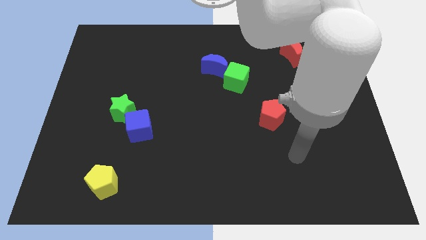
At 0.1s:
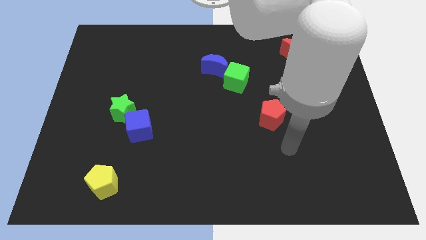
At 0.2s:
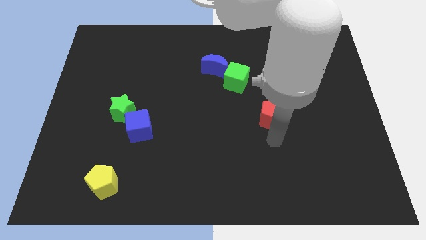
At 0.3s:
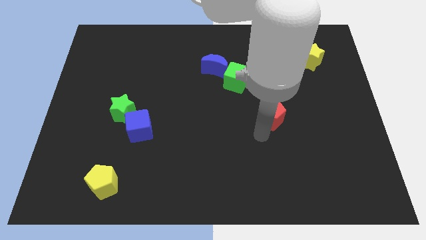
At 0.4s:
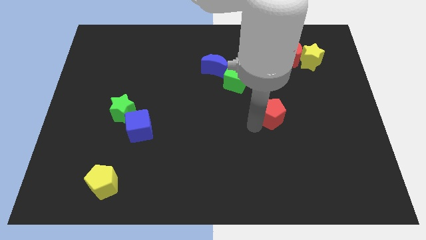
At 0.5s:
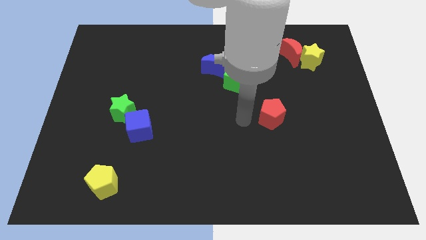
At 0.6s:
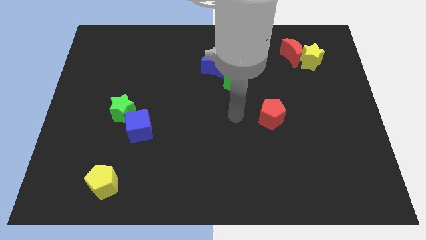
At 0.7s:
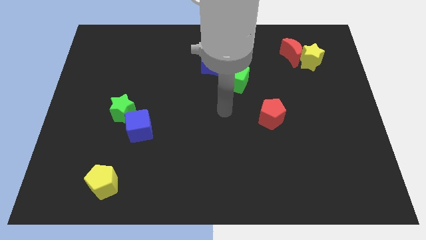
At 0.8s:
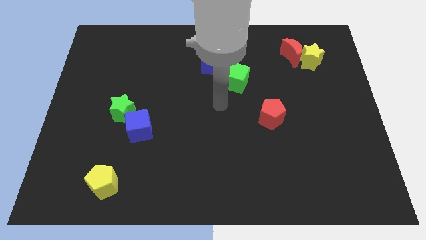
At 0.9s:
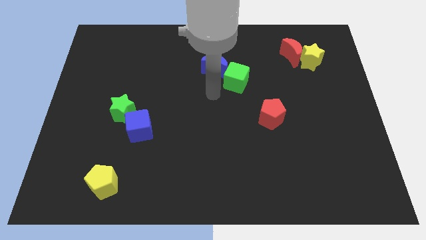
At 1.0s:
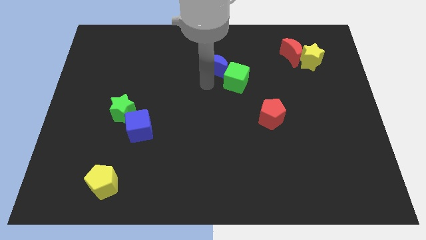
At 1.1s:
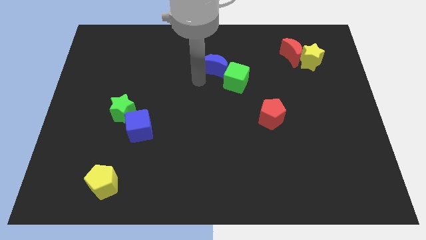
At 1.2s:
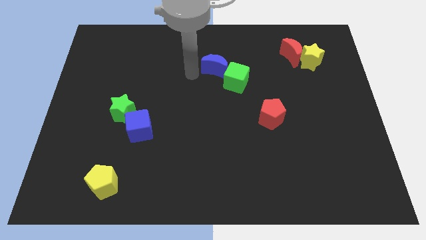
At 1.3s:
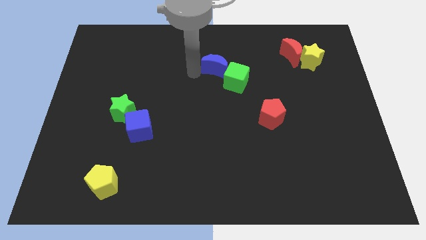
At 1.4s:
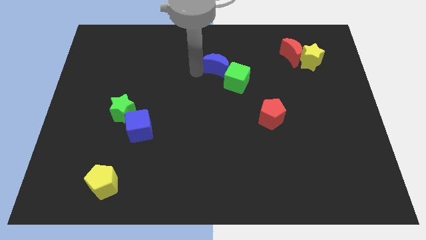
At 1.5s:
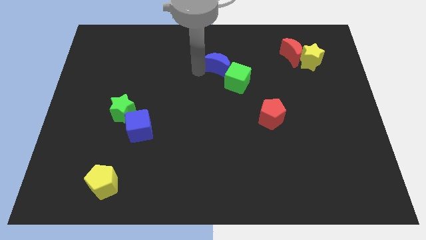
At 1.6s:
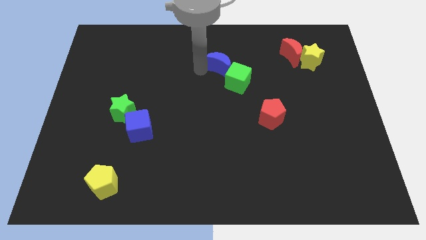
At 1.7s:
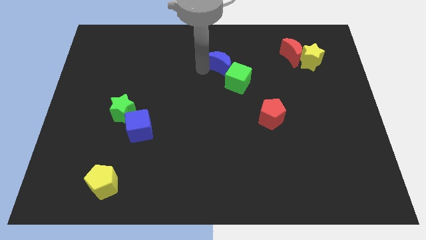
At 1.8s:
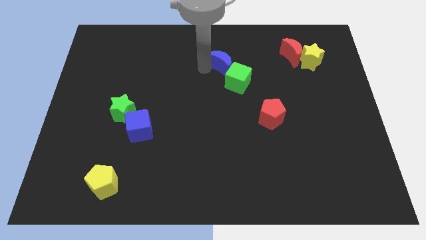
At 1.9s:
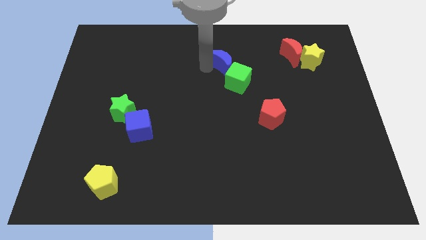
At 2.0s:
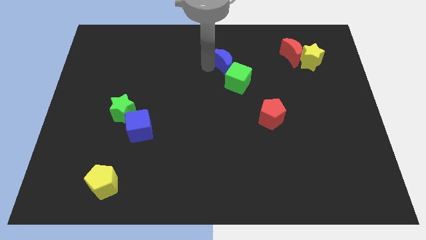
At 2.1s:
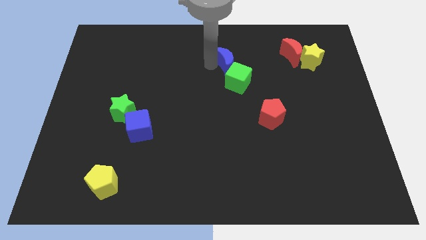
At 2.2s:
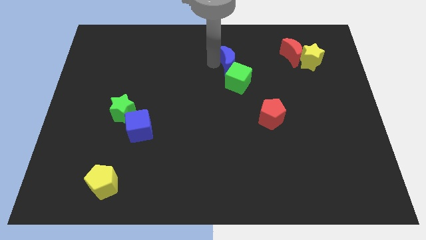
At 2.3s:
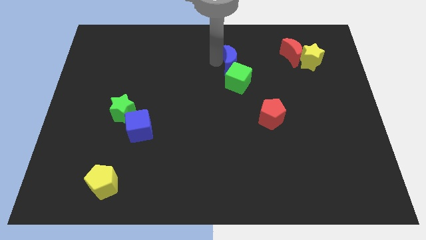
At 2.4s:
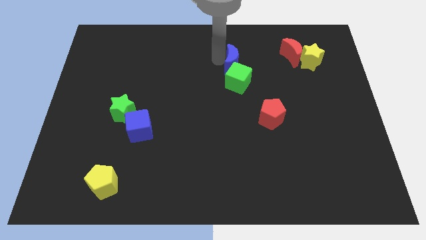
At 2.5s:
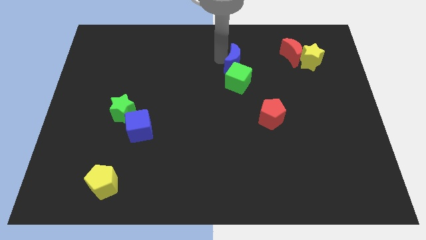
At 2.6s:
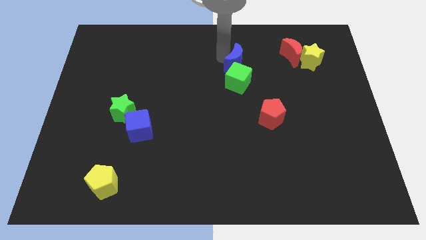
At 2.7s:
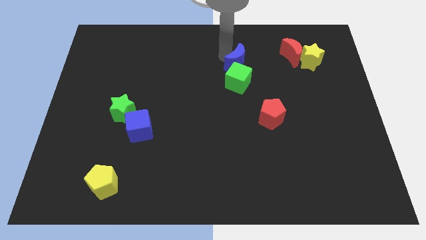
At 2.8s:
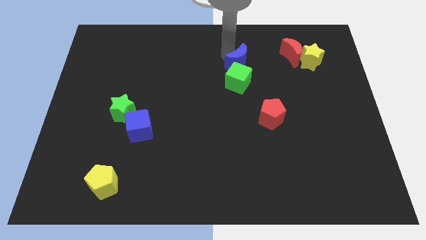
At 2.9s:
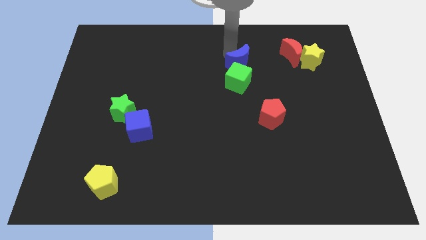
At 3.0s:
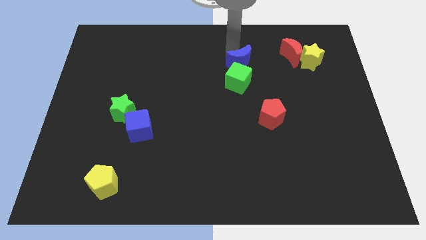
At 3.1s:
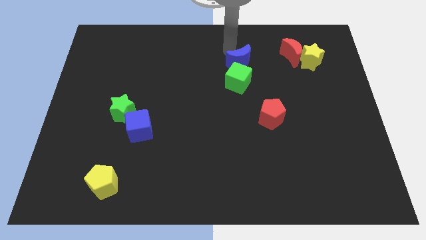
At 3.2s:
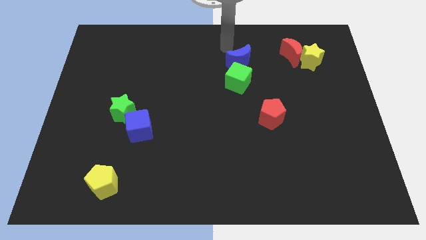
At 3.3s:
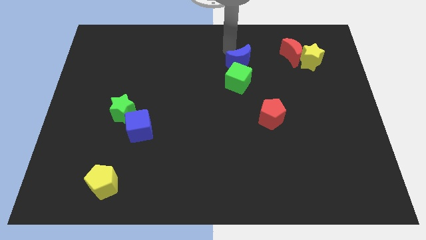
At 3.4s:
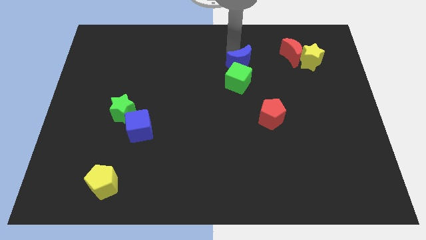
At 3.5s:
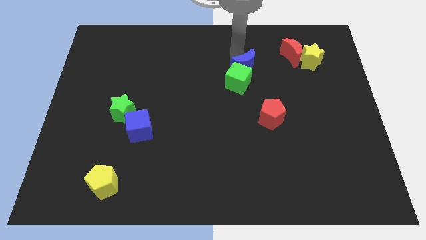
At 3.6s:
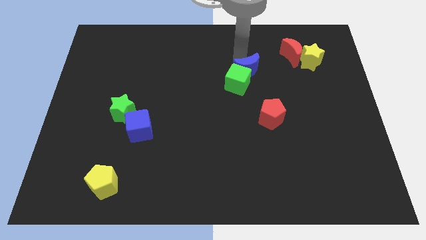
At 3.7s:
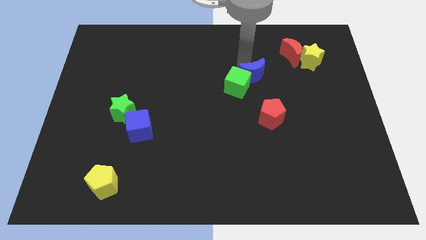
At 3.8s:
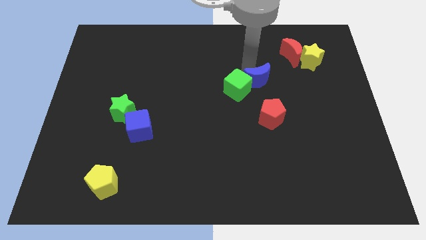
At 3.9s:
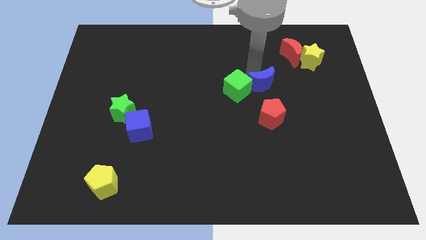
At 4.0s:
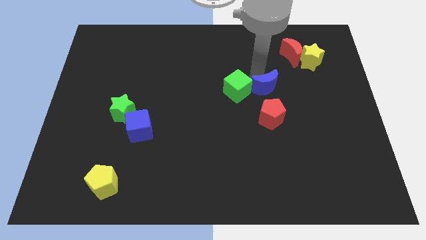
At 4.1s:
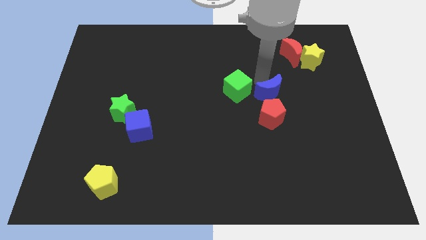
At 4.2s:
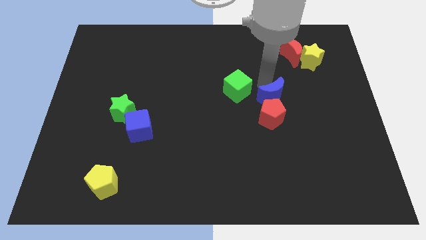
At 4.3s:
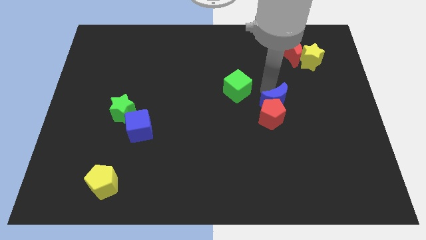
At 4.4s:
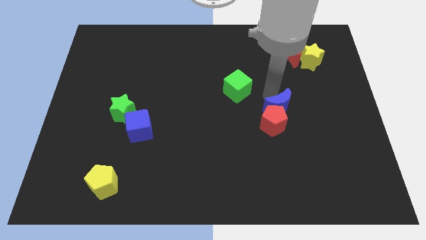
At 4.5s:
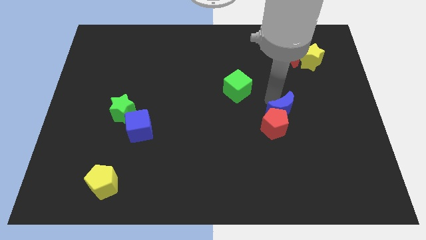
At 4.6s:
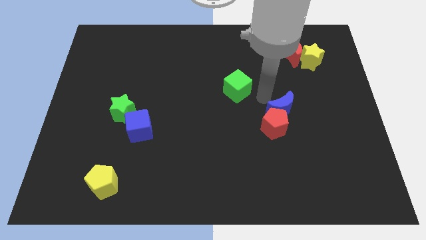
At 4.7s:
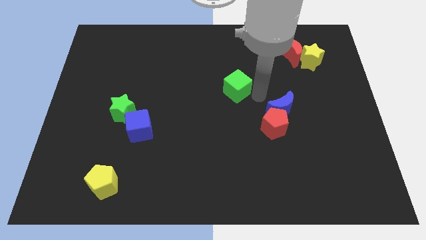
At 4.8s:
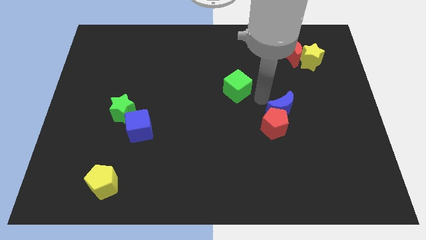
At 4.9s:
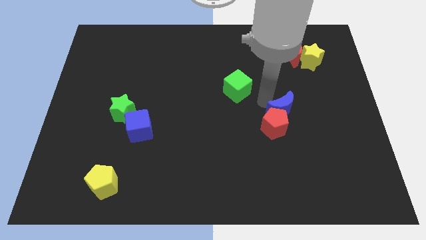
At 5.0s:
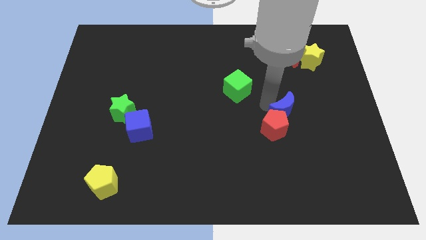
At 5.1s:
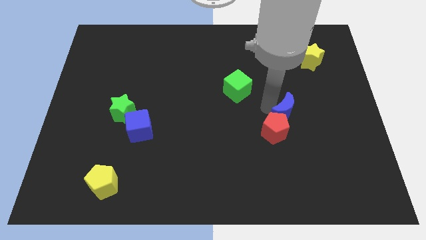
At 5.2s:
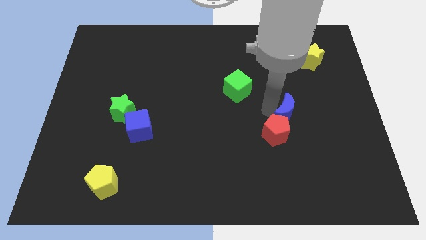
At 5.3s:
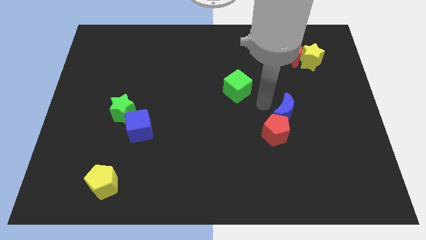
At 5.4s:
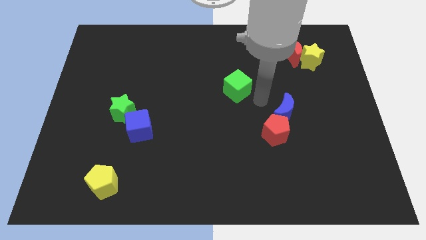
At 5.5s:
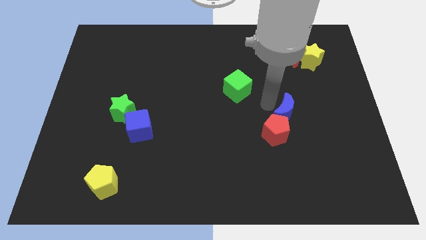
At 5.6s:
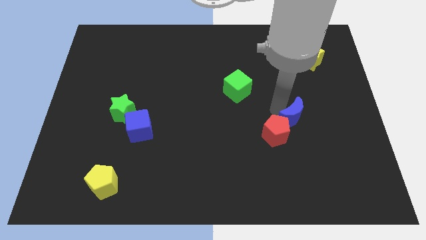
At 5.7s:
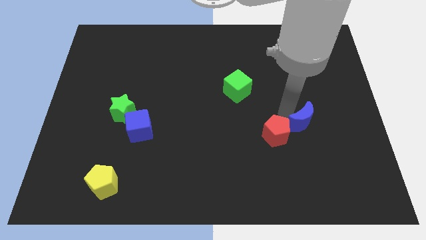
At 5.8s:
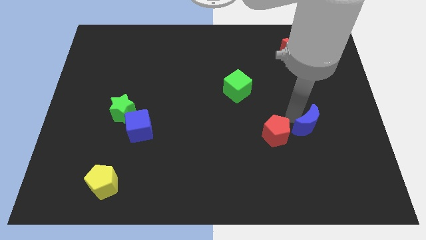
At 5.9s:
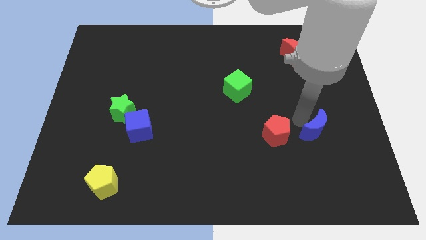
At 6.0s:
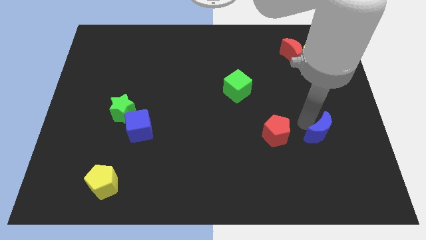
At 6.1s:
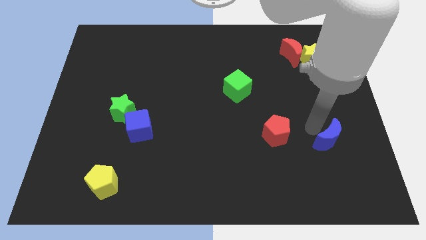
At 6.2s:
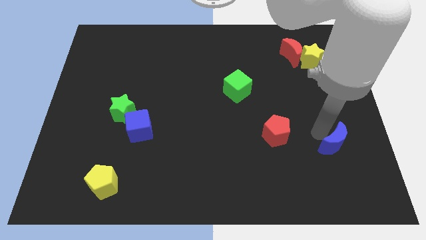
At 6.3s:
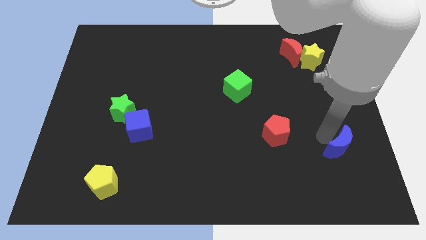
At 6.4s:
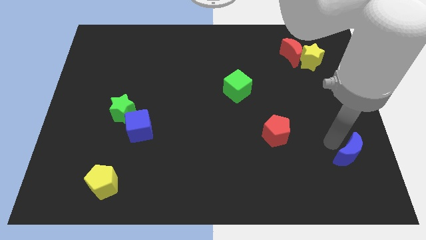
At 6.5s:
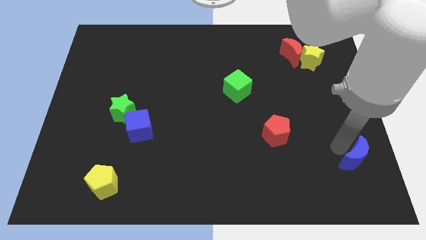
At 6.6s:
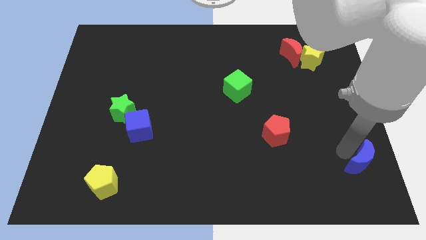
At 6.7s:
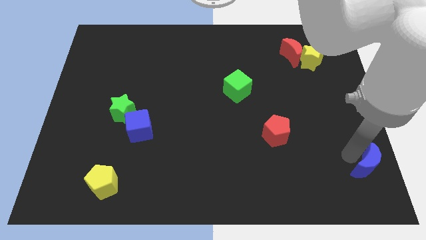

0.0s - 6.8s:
push the blue moon to the lower right corner
